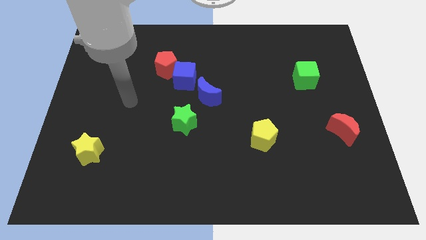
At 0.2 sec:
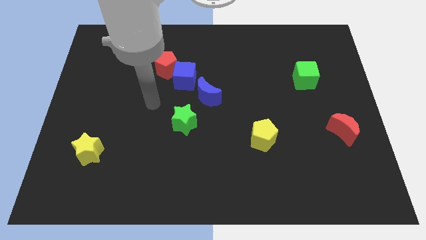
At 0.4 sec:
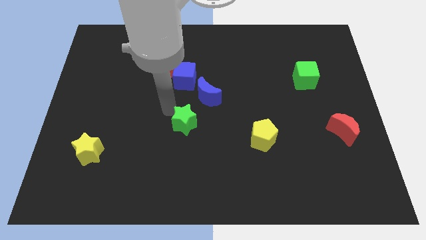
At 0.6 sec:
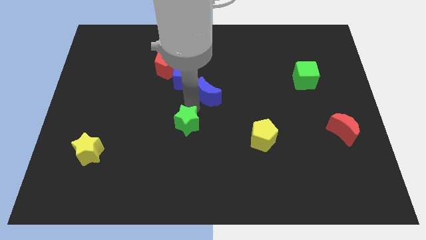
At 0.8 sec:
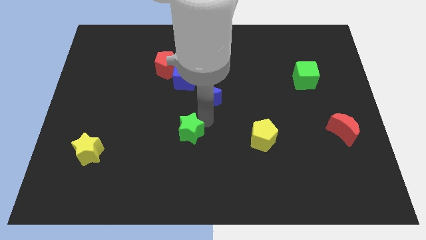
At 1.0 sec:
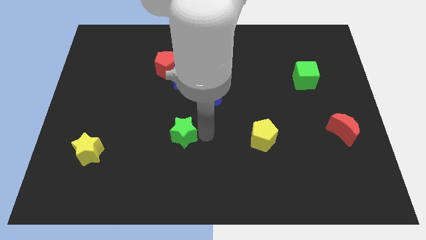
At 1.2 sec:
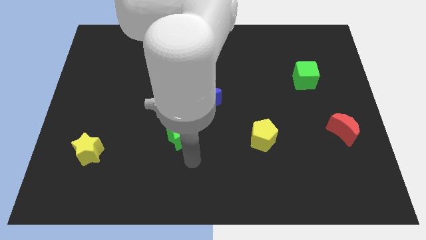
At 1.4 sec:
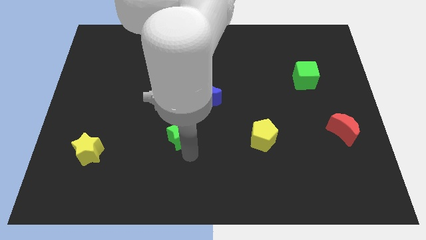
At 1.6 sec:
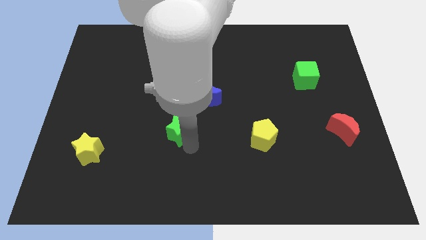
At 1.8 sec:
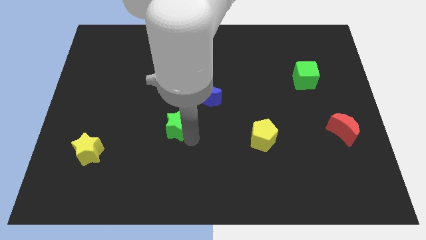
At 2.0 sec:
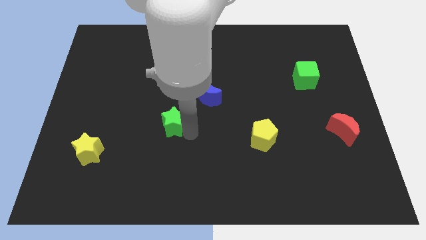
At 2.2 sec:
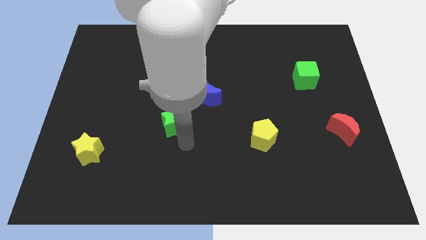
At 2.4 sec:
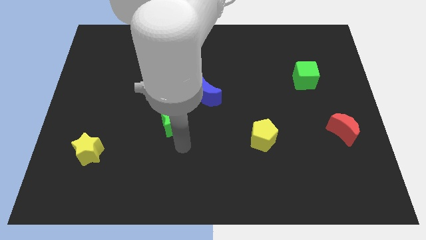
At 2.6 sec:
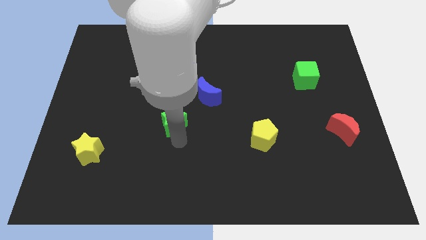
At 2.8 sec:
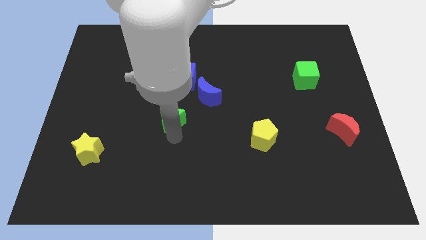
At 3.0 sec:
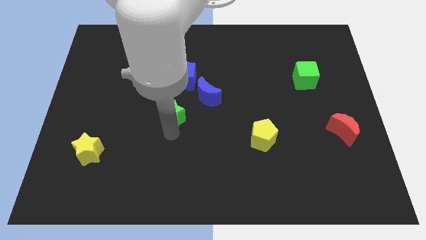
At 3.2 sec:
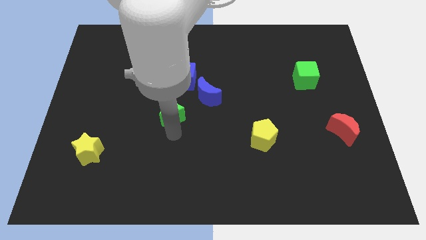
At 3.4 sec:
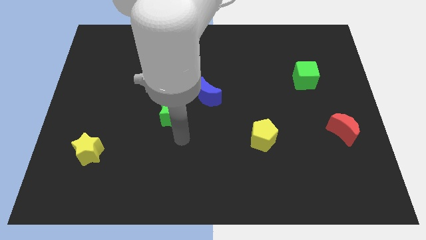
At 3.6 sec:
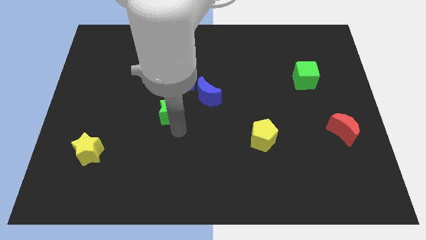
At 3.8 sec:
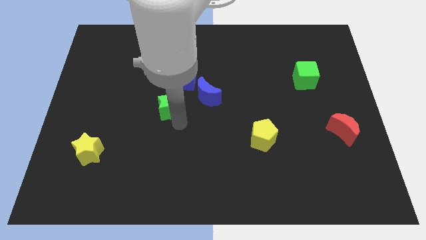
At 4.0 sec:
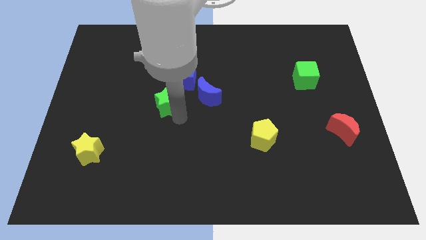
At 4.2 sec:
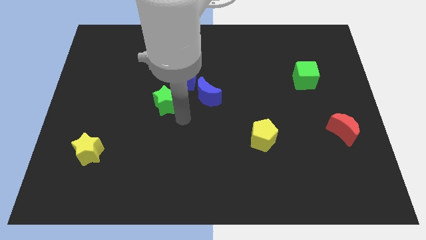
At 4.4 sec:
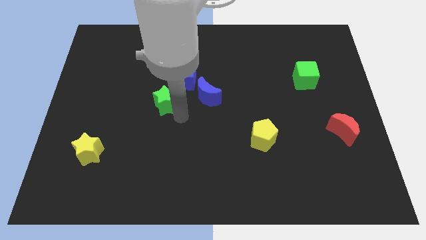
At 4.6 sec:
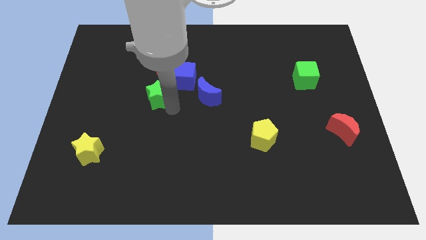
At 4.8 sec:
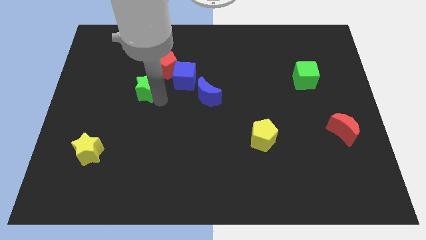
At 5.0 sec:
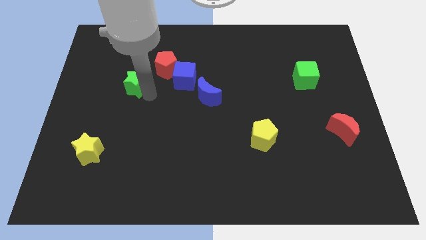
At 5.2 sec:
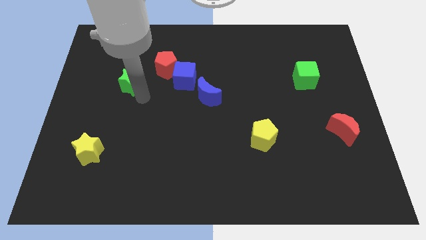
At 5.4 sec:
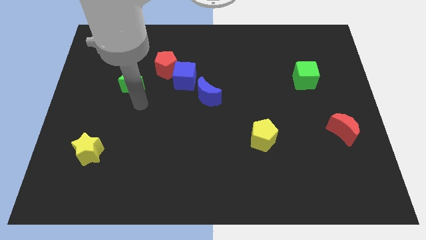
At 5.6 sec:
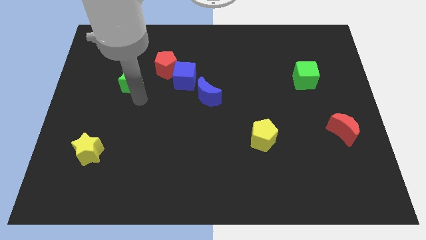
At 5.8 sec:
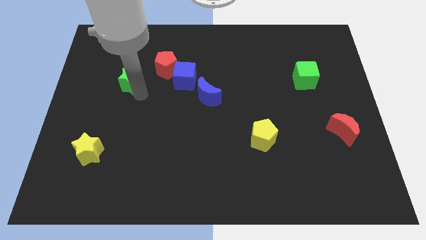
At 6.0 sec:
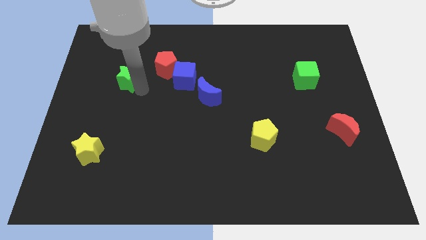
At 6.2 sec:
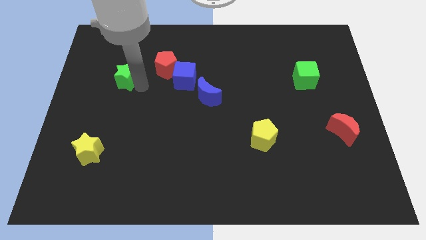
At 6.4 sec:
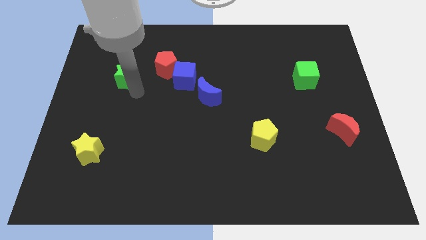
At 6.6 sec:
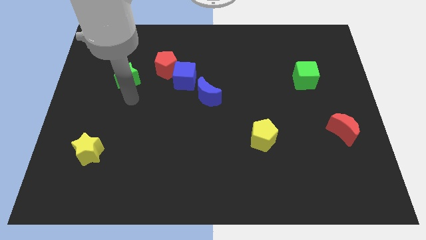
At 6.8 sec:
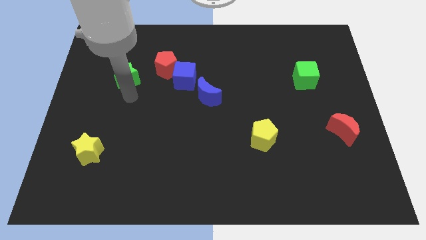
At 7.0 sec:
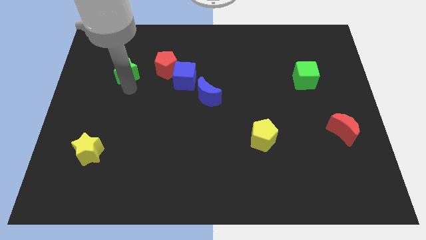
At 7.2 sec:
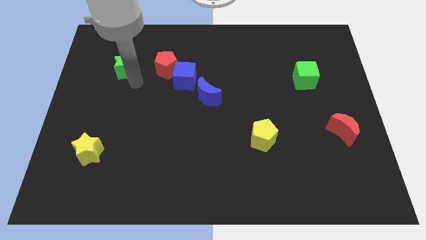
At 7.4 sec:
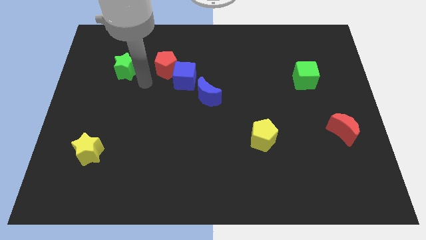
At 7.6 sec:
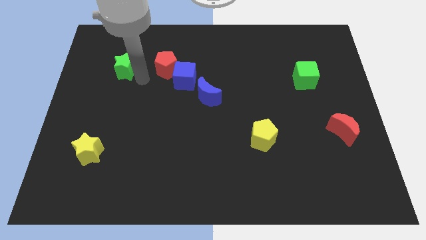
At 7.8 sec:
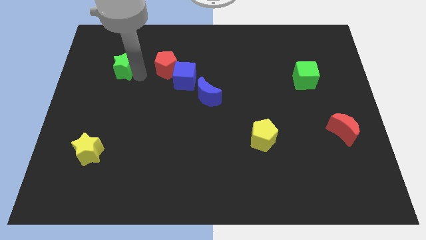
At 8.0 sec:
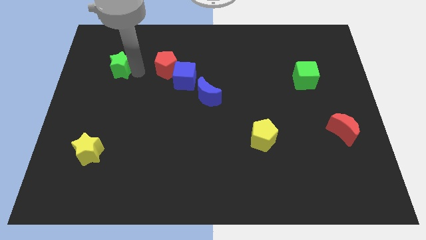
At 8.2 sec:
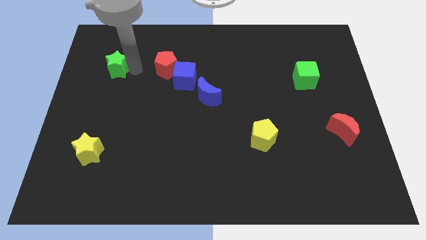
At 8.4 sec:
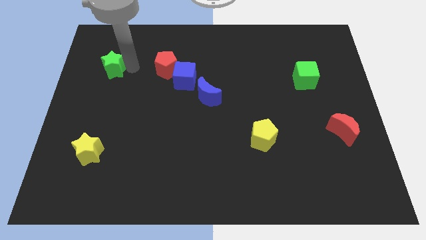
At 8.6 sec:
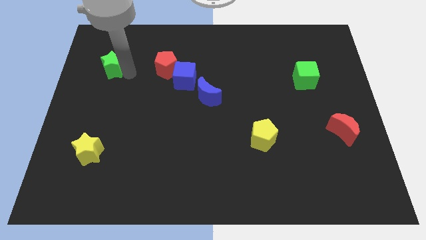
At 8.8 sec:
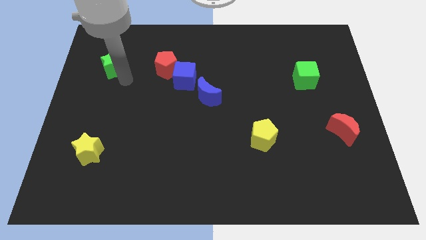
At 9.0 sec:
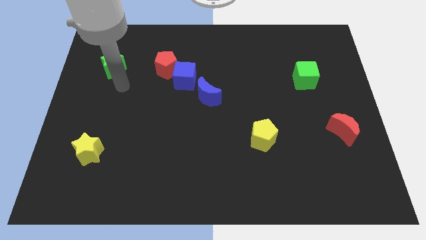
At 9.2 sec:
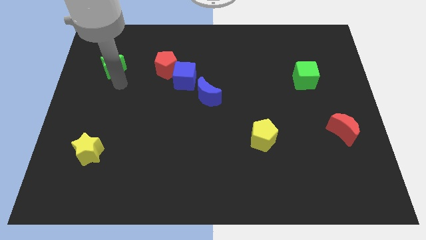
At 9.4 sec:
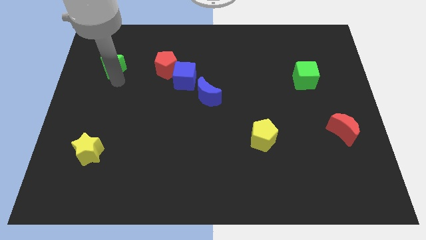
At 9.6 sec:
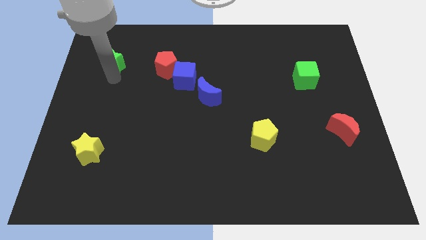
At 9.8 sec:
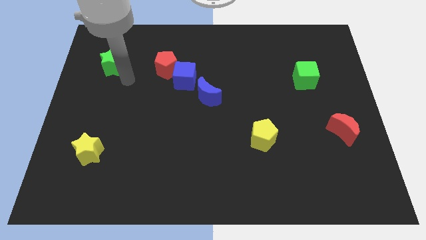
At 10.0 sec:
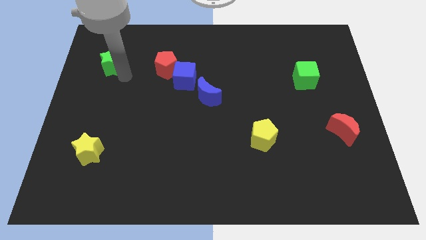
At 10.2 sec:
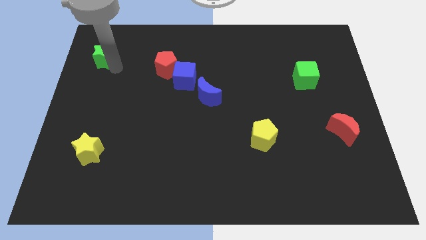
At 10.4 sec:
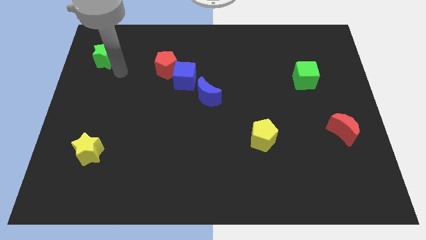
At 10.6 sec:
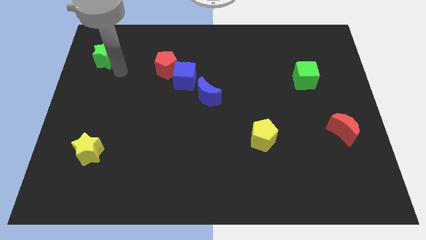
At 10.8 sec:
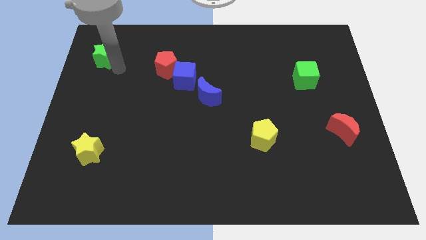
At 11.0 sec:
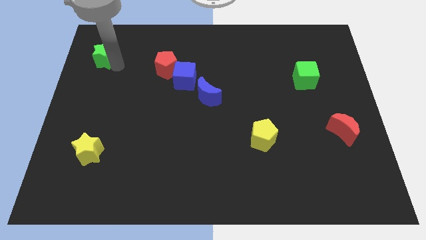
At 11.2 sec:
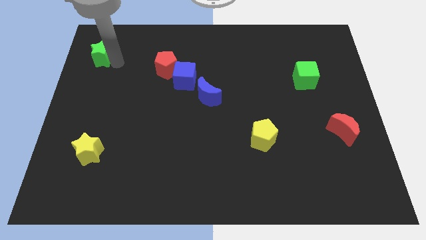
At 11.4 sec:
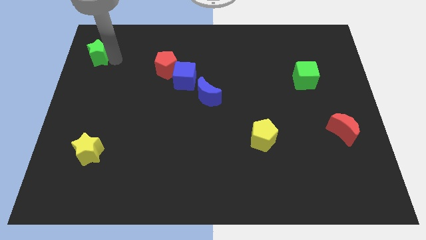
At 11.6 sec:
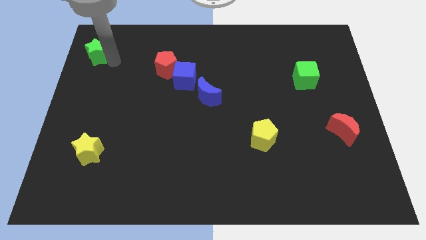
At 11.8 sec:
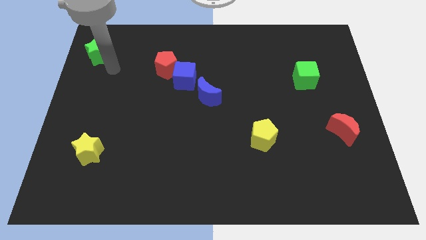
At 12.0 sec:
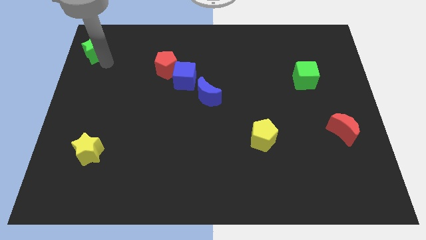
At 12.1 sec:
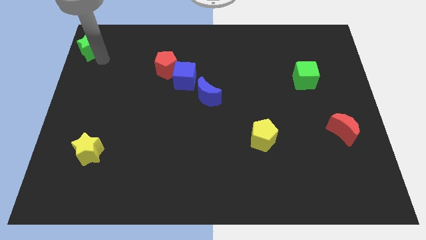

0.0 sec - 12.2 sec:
push the green star to the top left of the board

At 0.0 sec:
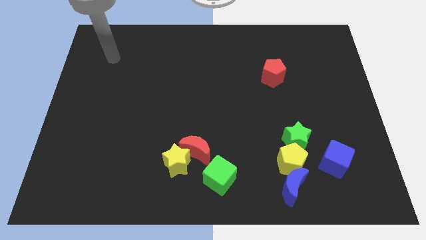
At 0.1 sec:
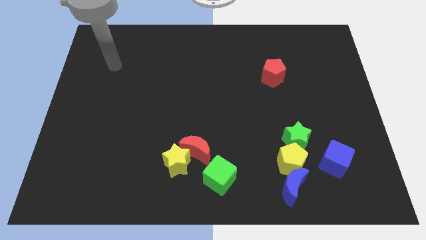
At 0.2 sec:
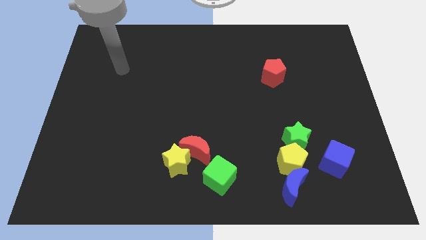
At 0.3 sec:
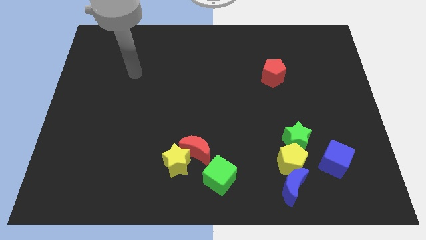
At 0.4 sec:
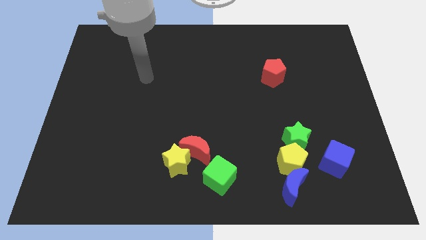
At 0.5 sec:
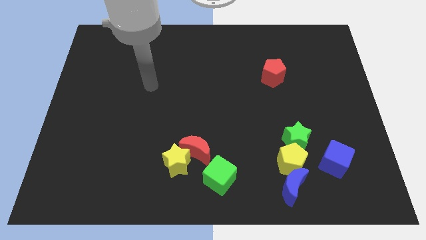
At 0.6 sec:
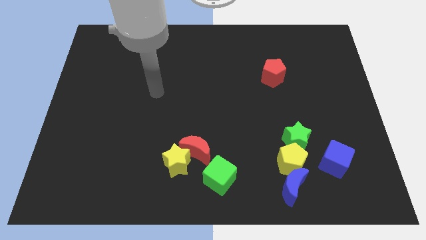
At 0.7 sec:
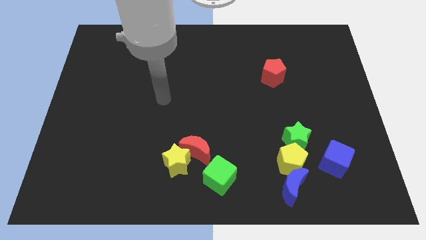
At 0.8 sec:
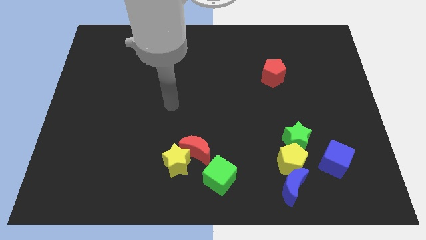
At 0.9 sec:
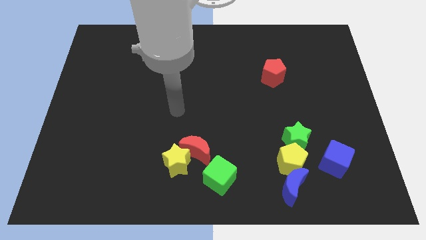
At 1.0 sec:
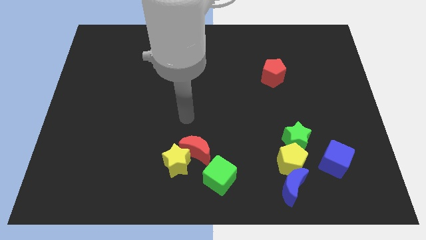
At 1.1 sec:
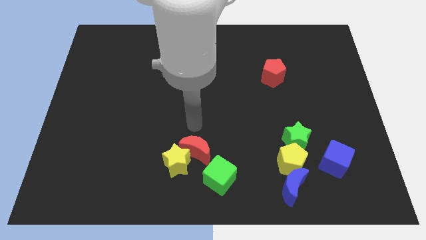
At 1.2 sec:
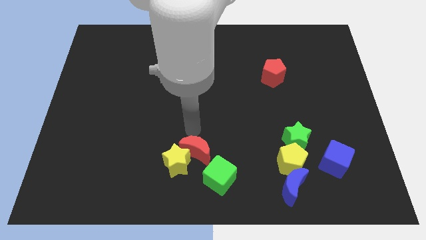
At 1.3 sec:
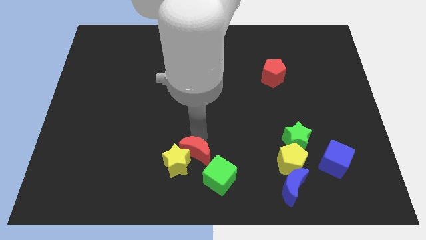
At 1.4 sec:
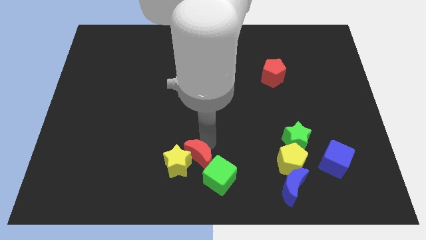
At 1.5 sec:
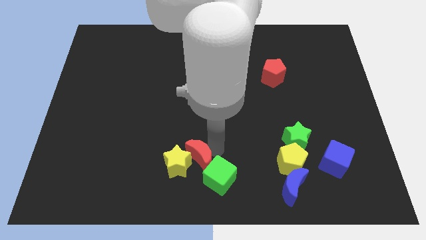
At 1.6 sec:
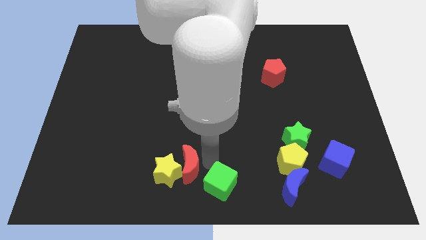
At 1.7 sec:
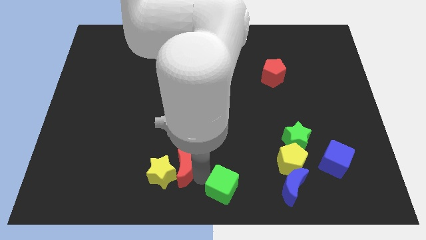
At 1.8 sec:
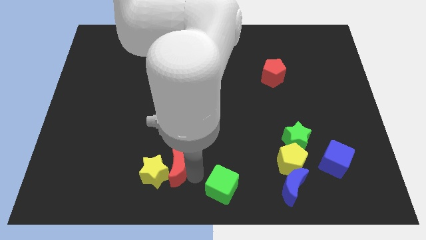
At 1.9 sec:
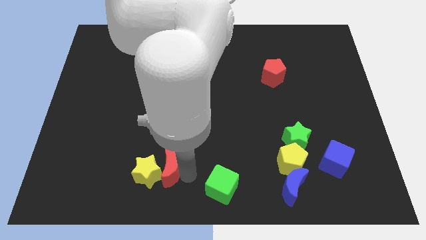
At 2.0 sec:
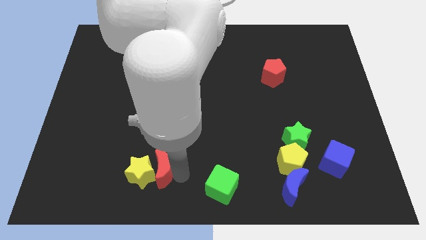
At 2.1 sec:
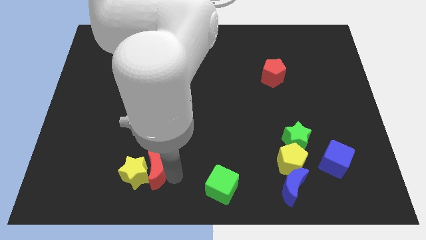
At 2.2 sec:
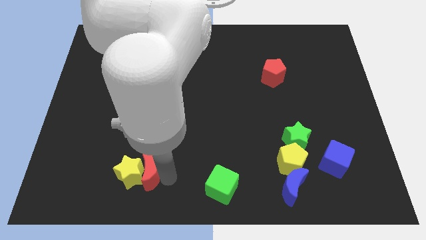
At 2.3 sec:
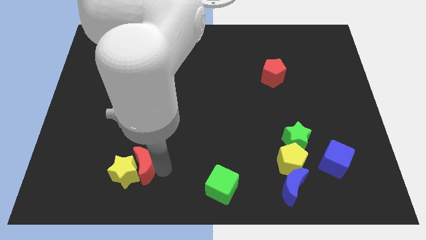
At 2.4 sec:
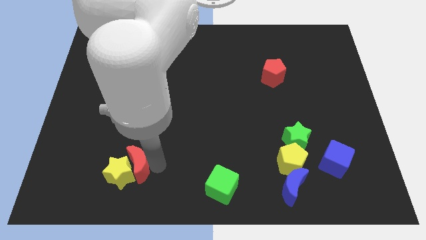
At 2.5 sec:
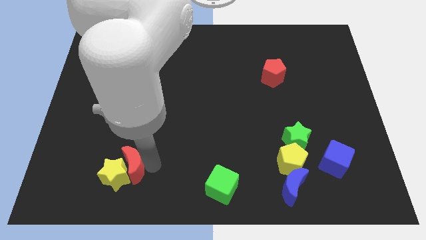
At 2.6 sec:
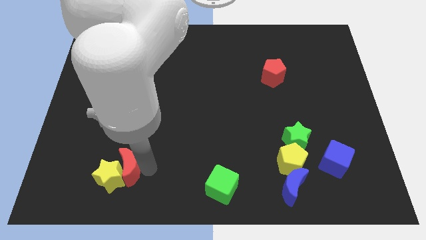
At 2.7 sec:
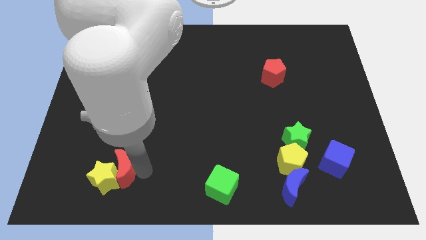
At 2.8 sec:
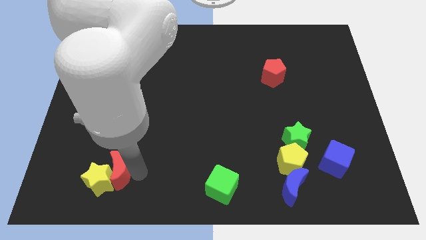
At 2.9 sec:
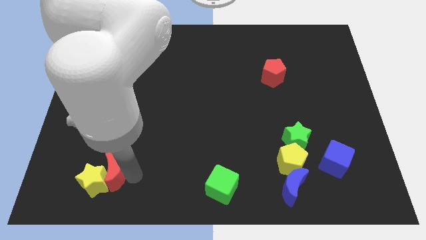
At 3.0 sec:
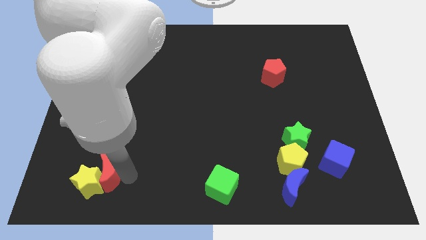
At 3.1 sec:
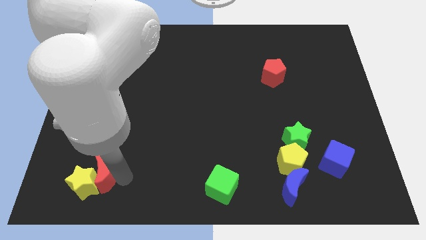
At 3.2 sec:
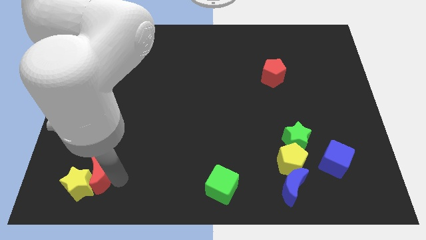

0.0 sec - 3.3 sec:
slide the yellow star to the bottom left of the board
